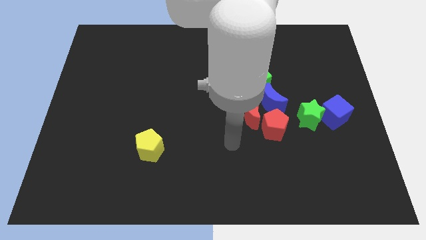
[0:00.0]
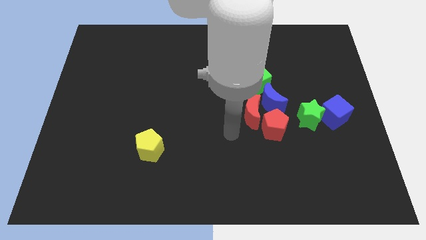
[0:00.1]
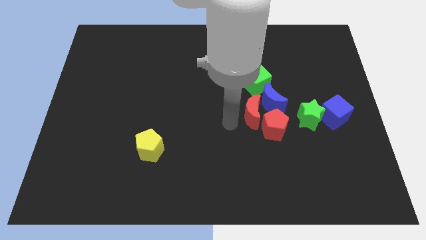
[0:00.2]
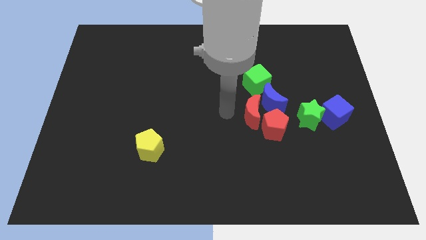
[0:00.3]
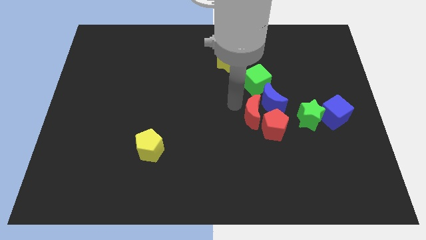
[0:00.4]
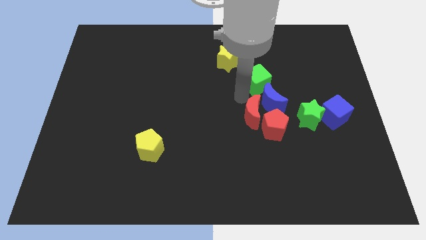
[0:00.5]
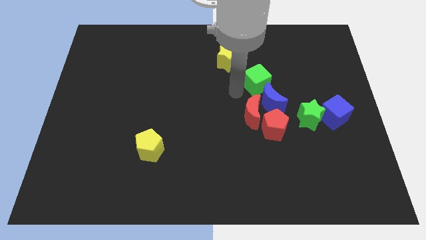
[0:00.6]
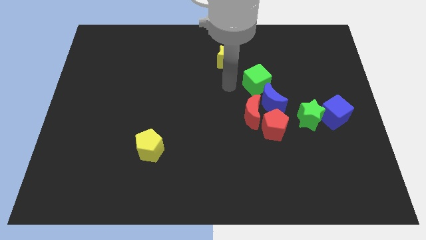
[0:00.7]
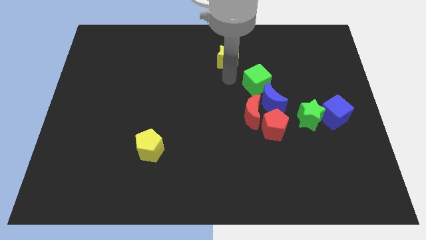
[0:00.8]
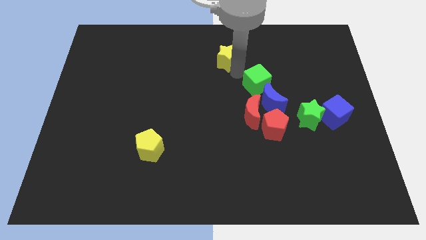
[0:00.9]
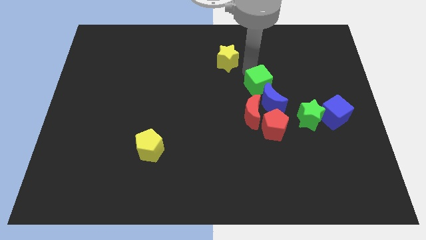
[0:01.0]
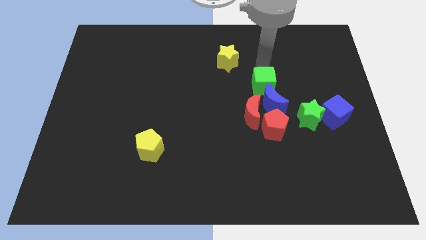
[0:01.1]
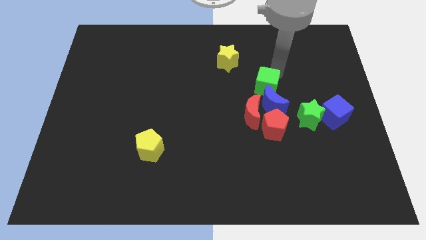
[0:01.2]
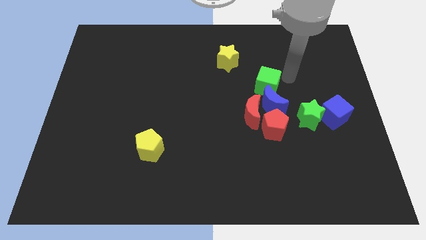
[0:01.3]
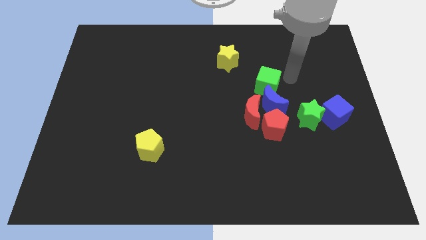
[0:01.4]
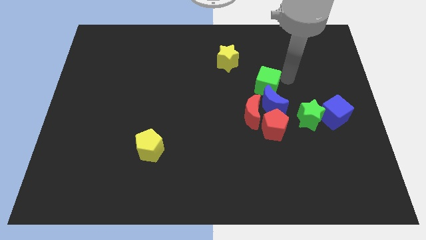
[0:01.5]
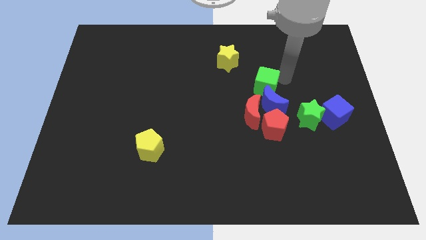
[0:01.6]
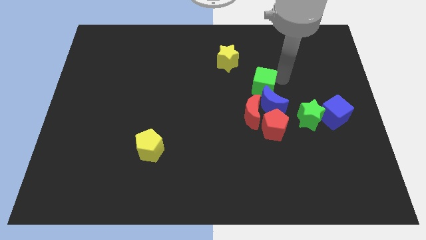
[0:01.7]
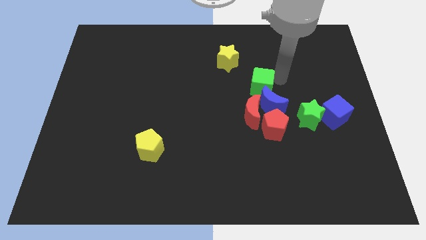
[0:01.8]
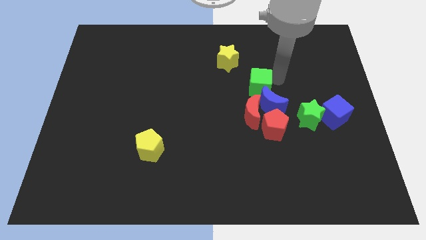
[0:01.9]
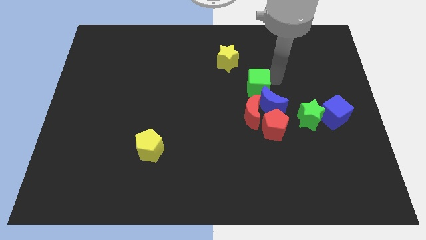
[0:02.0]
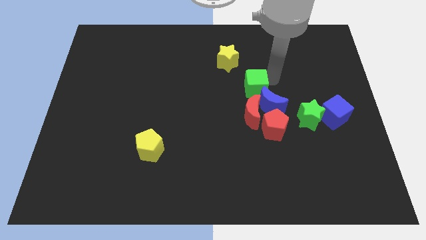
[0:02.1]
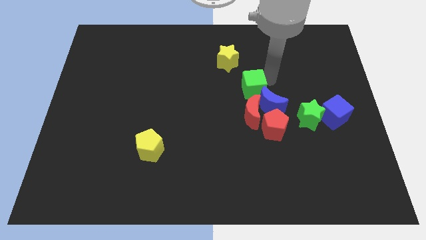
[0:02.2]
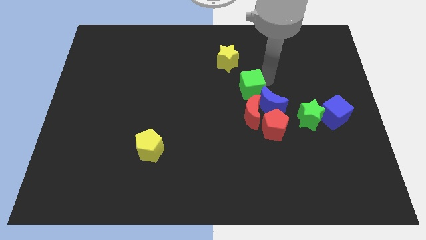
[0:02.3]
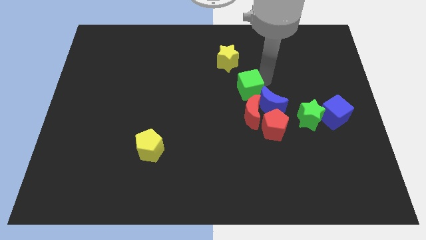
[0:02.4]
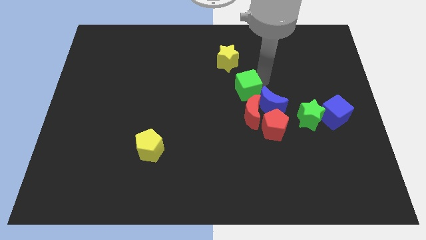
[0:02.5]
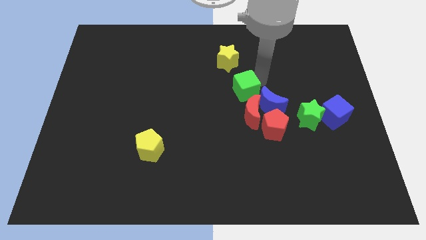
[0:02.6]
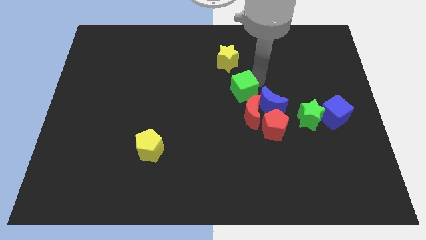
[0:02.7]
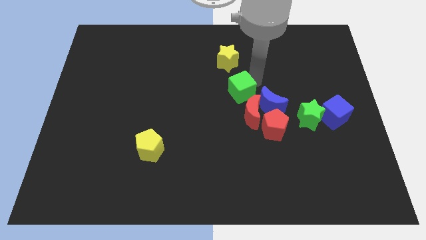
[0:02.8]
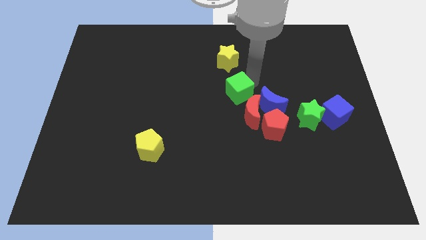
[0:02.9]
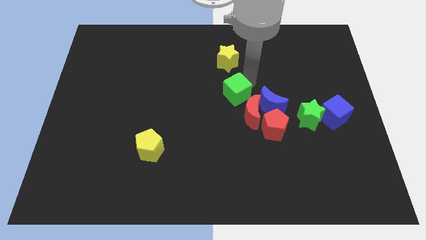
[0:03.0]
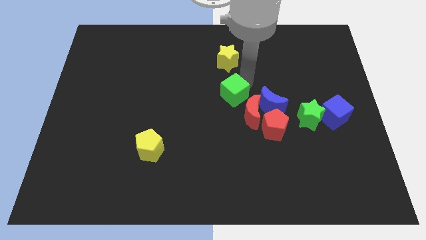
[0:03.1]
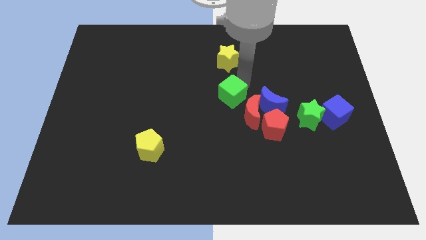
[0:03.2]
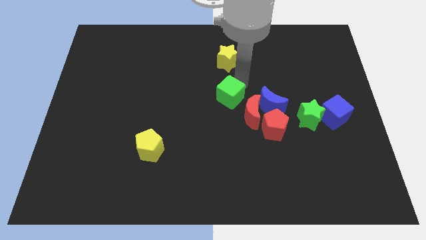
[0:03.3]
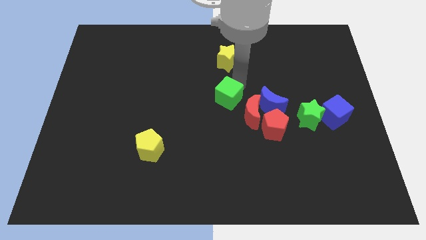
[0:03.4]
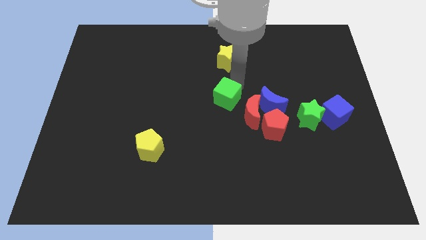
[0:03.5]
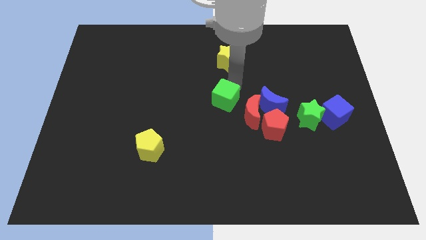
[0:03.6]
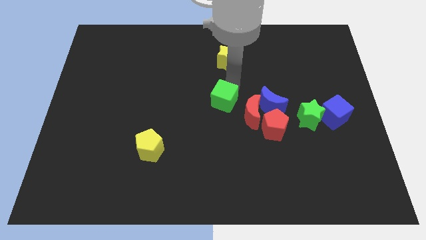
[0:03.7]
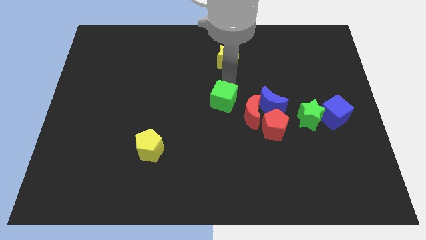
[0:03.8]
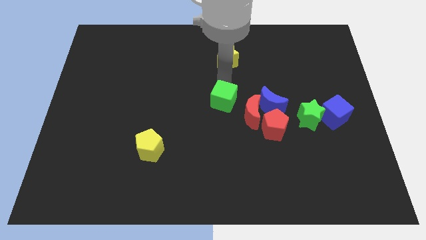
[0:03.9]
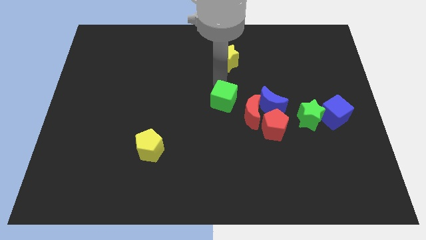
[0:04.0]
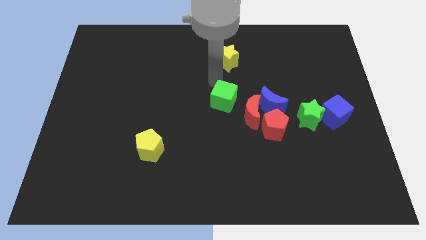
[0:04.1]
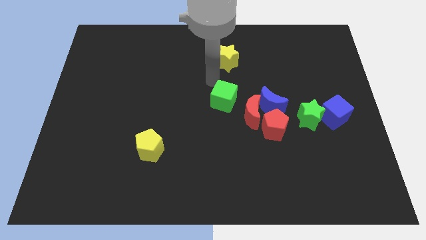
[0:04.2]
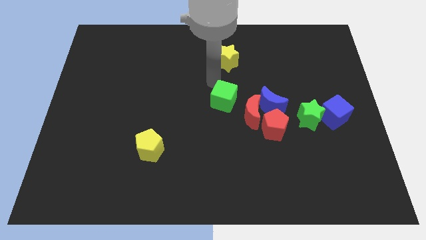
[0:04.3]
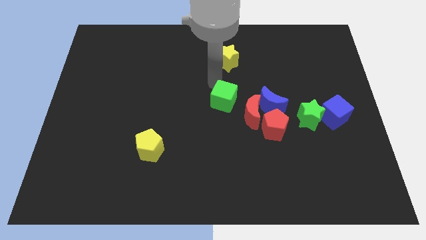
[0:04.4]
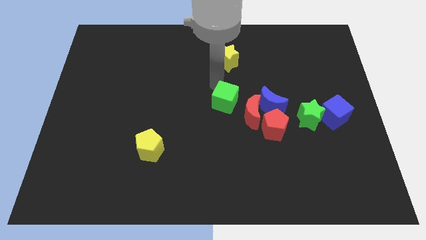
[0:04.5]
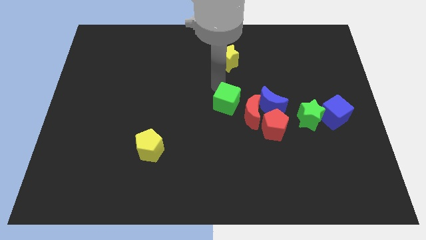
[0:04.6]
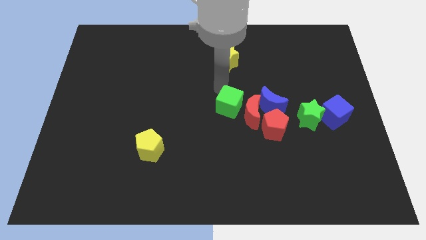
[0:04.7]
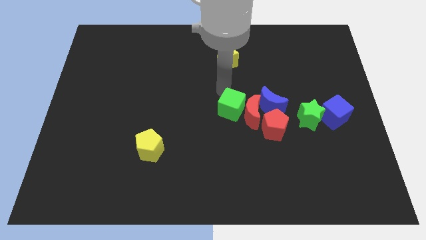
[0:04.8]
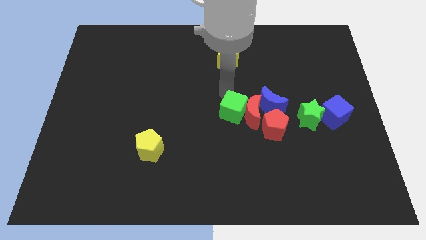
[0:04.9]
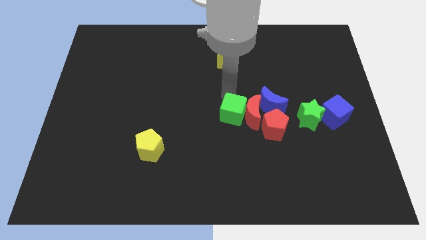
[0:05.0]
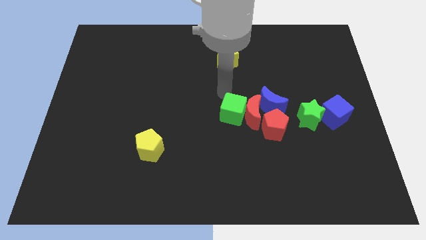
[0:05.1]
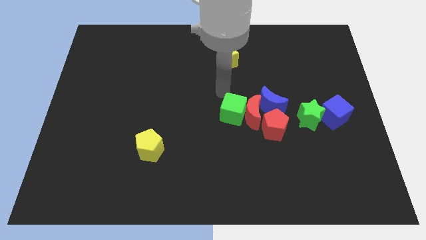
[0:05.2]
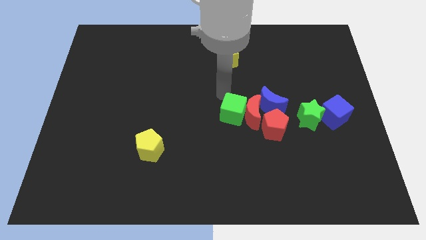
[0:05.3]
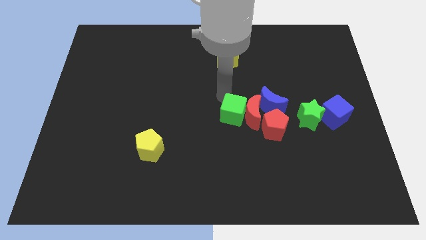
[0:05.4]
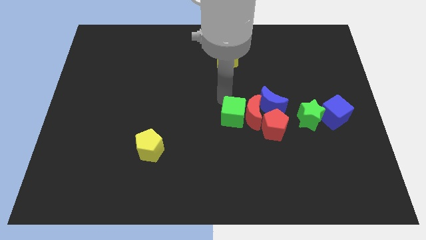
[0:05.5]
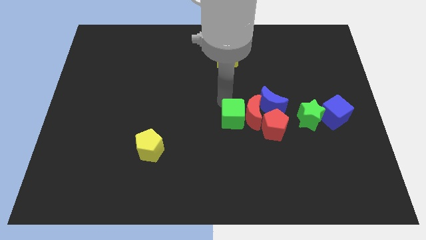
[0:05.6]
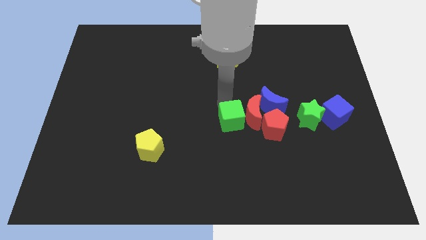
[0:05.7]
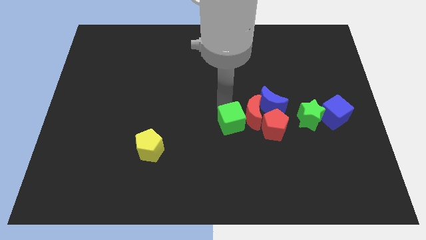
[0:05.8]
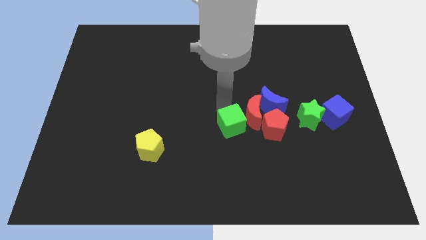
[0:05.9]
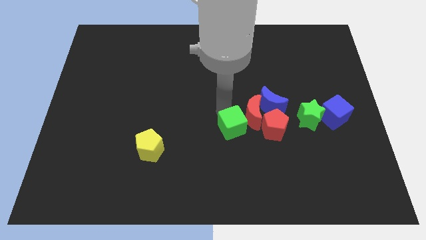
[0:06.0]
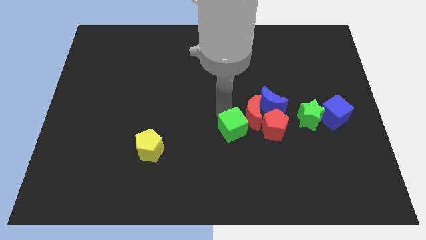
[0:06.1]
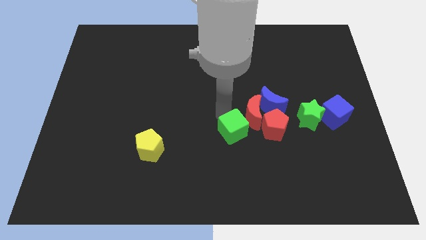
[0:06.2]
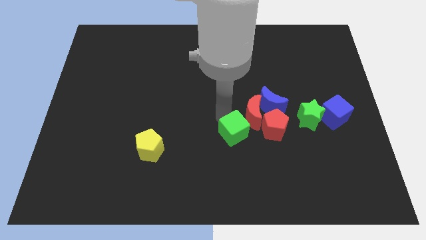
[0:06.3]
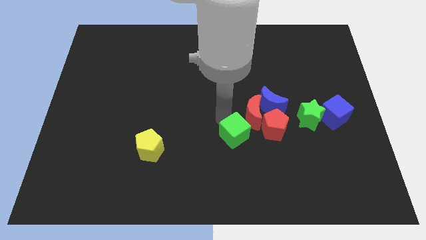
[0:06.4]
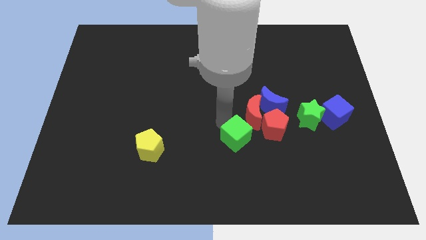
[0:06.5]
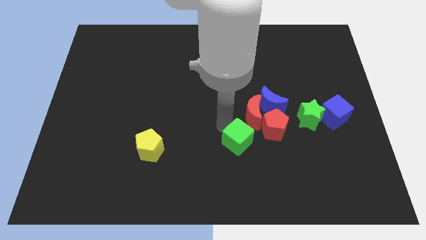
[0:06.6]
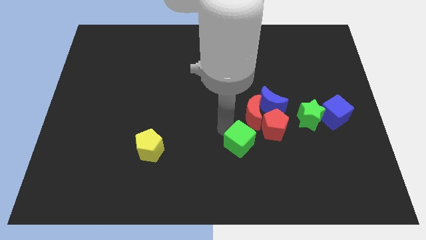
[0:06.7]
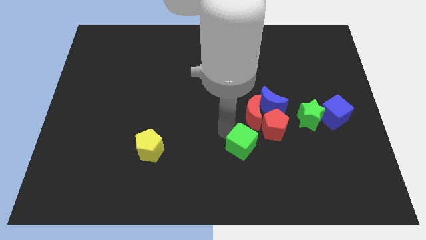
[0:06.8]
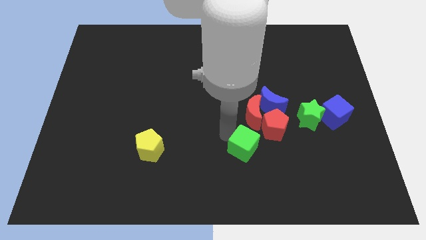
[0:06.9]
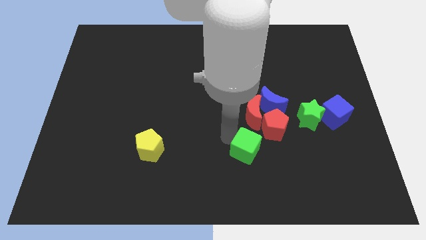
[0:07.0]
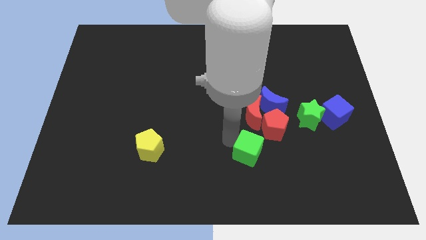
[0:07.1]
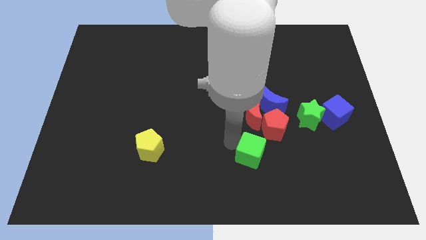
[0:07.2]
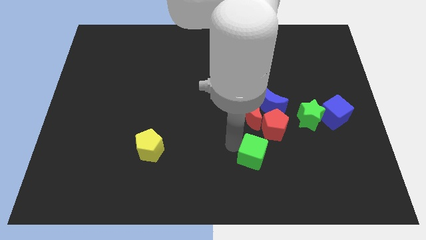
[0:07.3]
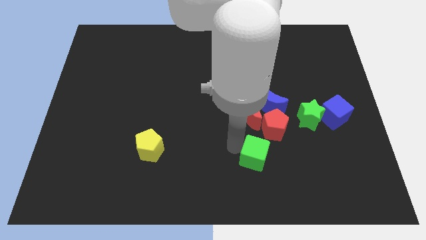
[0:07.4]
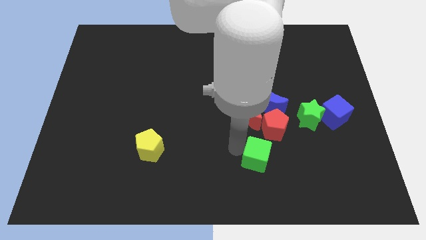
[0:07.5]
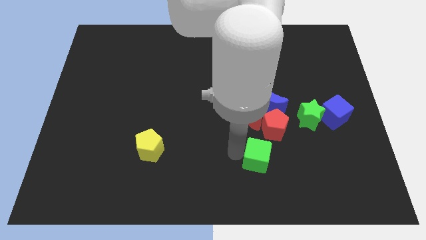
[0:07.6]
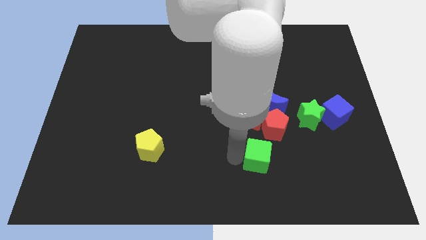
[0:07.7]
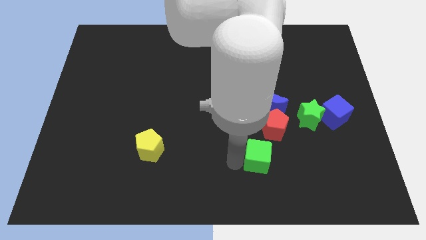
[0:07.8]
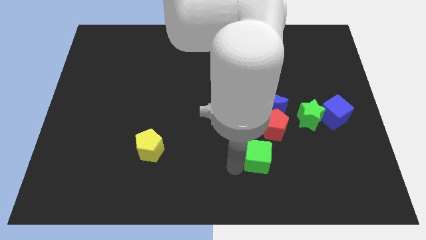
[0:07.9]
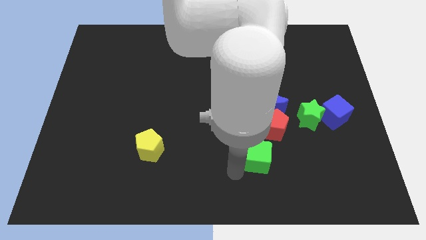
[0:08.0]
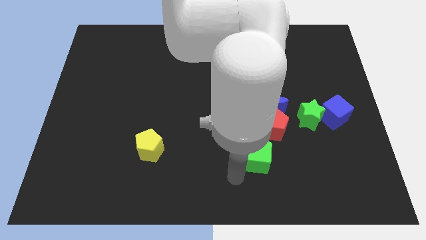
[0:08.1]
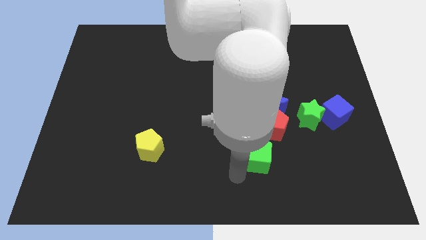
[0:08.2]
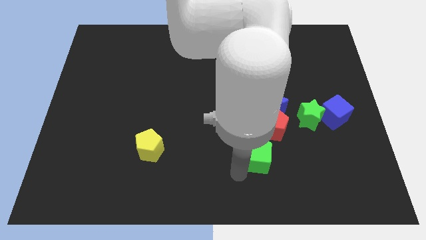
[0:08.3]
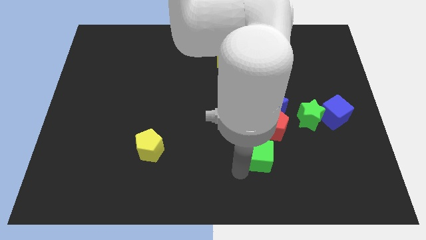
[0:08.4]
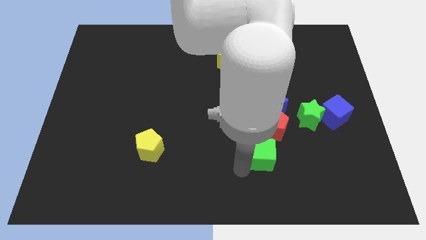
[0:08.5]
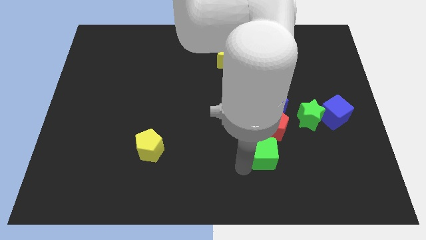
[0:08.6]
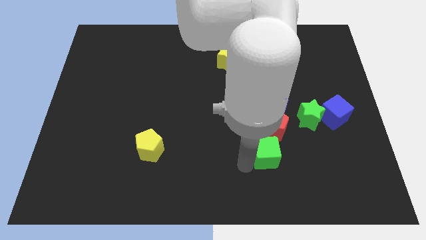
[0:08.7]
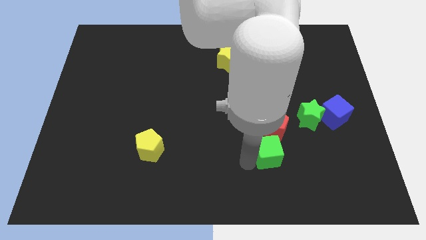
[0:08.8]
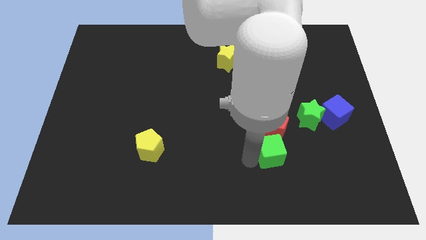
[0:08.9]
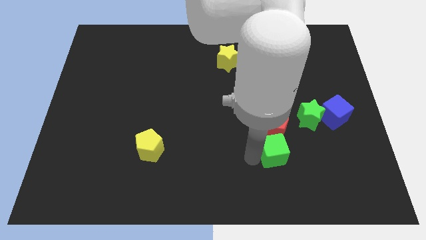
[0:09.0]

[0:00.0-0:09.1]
put the green cube to the bottom right side of the red moon
